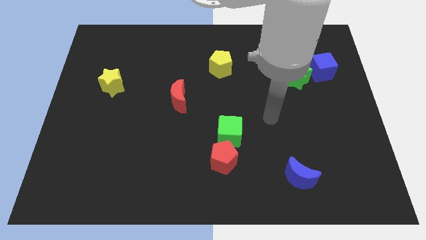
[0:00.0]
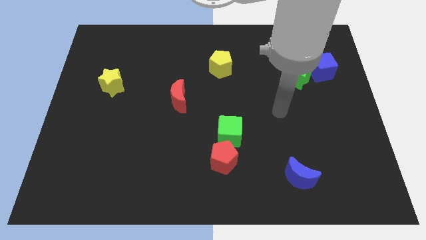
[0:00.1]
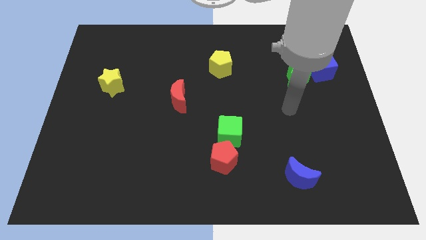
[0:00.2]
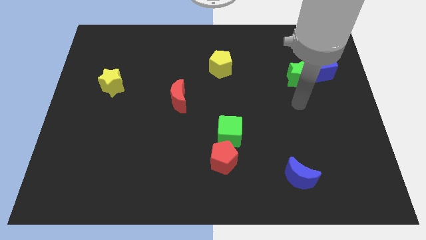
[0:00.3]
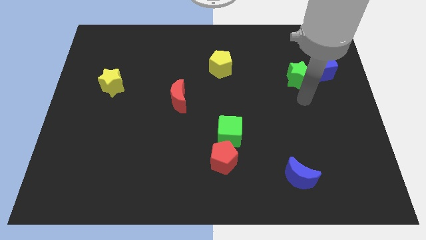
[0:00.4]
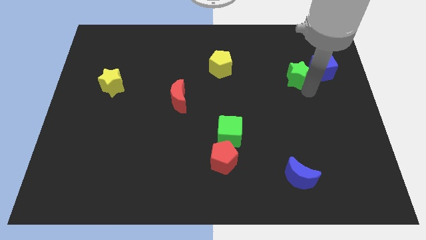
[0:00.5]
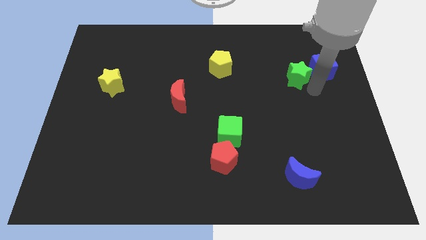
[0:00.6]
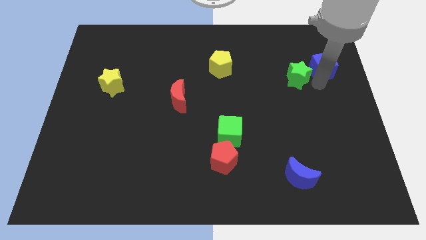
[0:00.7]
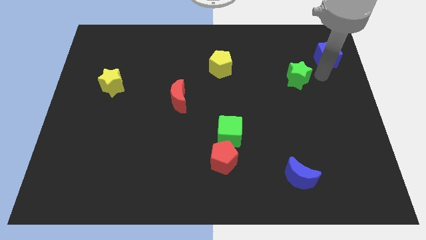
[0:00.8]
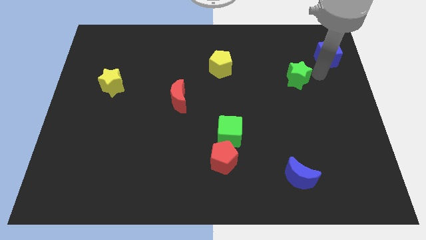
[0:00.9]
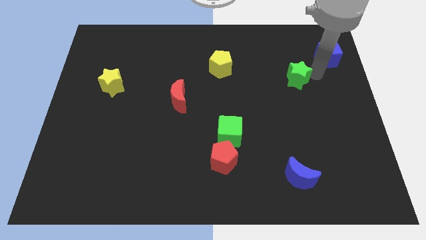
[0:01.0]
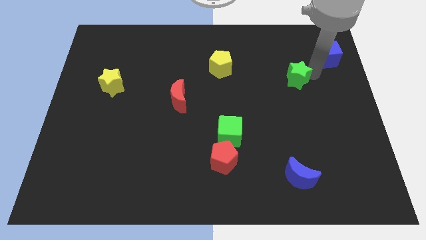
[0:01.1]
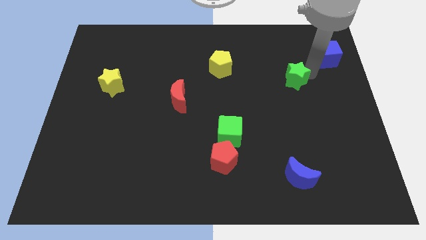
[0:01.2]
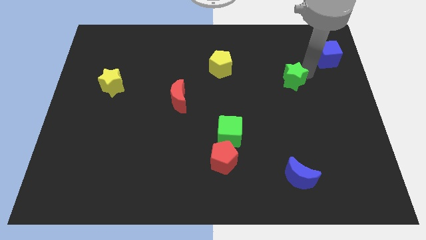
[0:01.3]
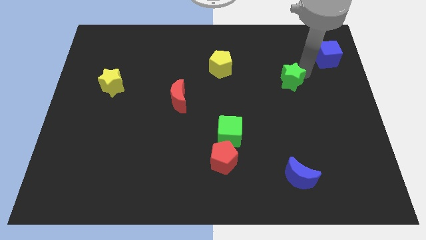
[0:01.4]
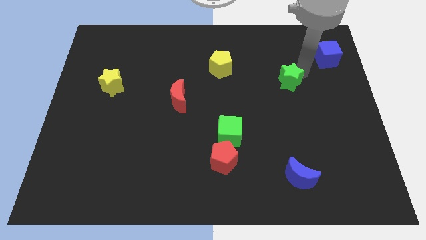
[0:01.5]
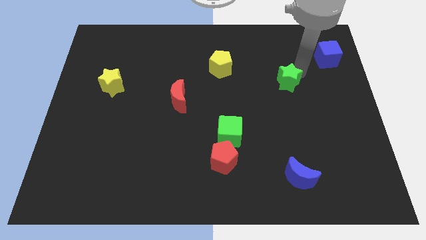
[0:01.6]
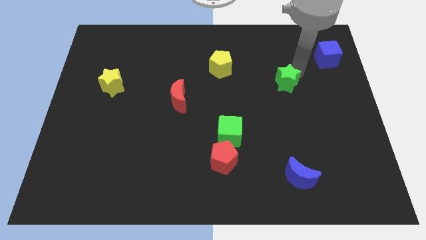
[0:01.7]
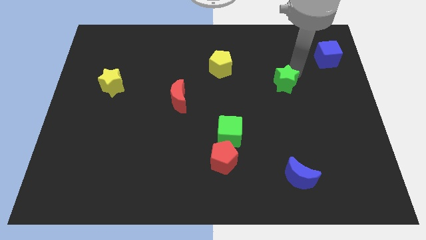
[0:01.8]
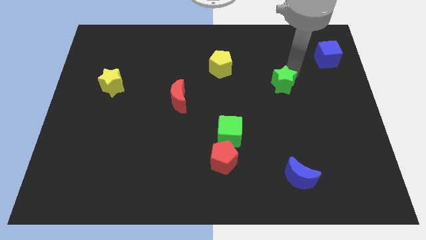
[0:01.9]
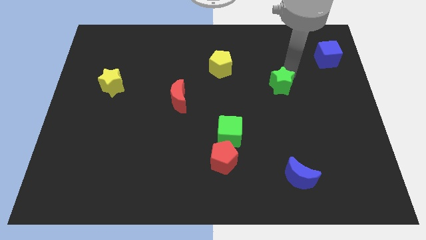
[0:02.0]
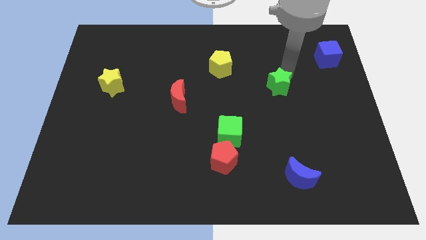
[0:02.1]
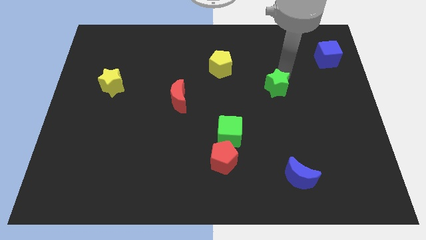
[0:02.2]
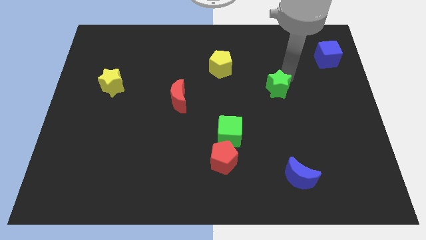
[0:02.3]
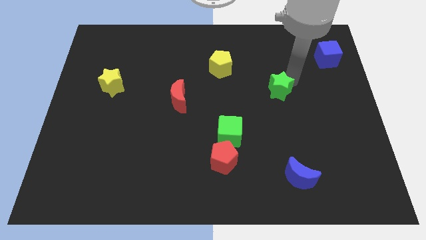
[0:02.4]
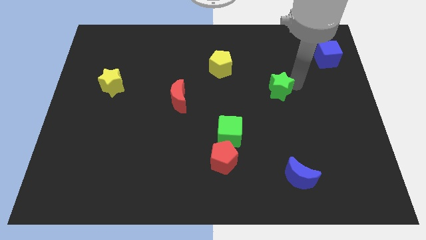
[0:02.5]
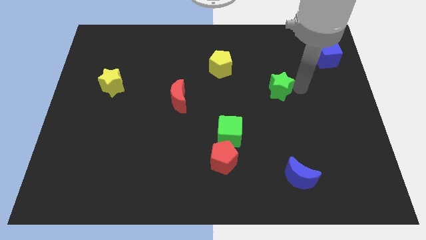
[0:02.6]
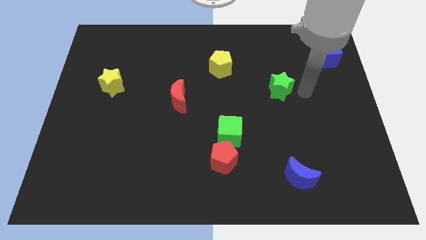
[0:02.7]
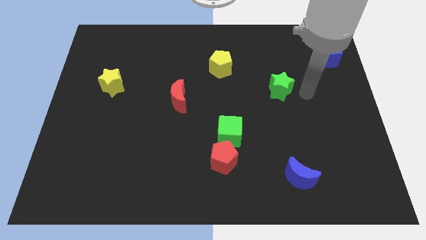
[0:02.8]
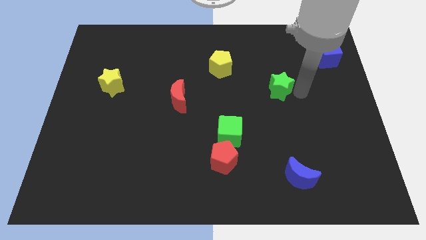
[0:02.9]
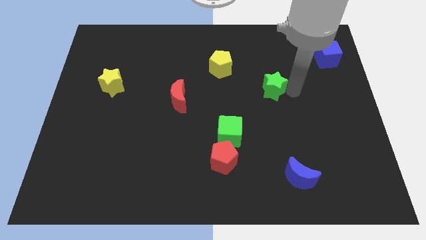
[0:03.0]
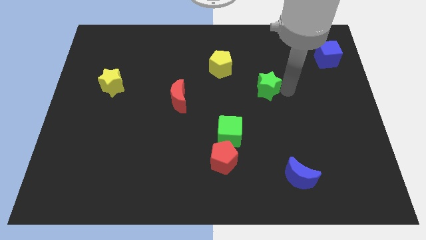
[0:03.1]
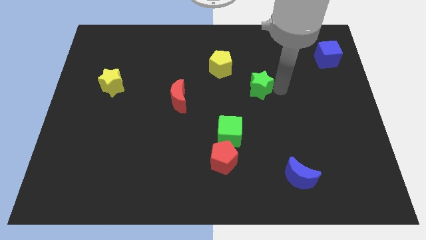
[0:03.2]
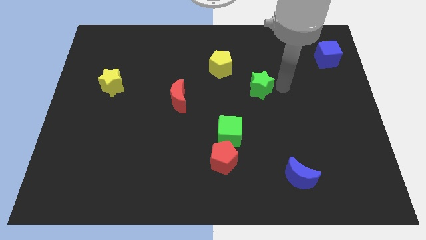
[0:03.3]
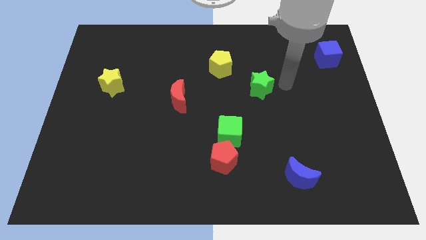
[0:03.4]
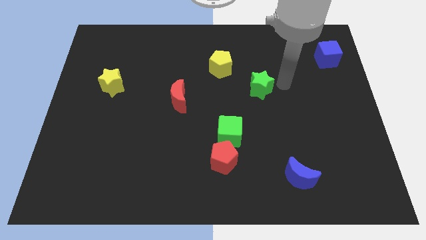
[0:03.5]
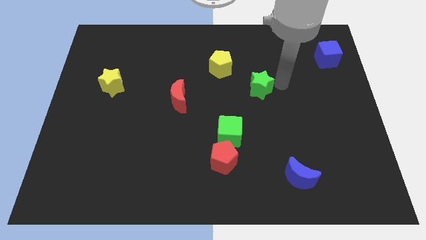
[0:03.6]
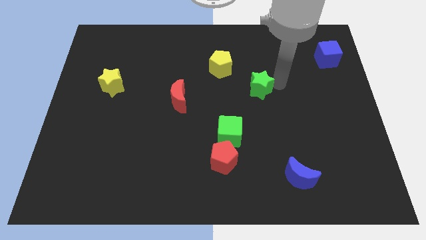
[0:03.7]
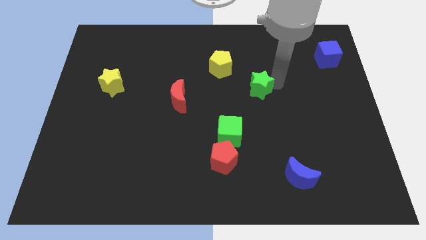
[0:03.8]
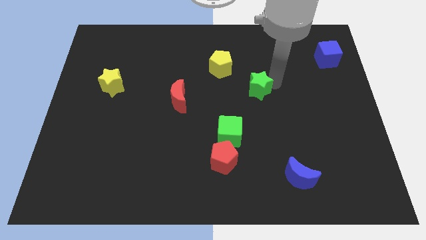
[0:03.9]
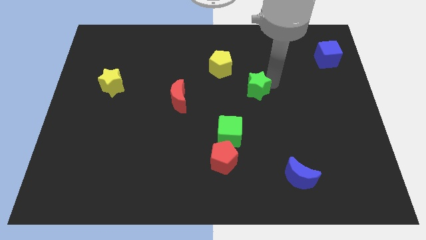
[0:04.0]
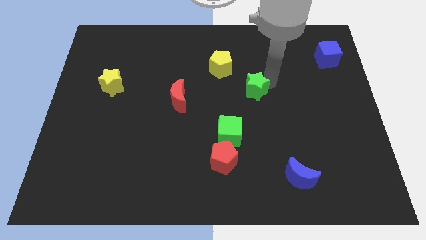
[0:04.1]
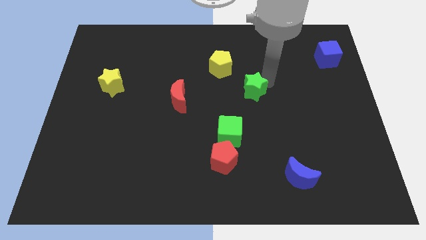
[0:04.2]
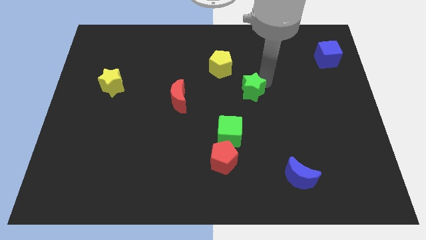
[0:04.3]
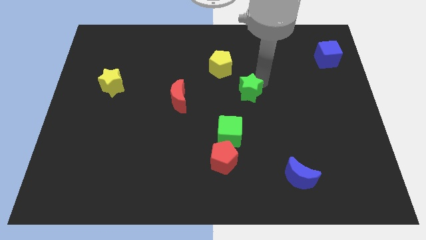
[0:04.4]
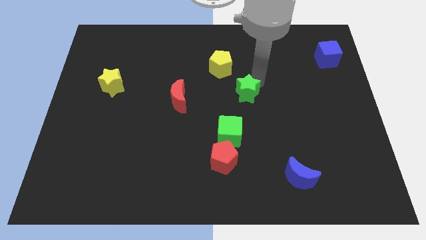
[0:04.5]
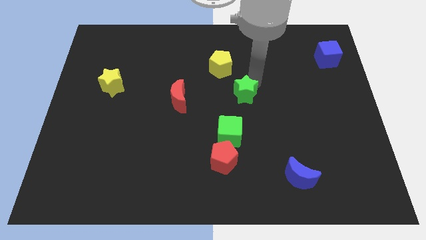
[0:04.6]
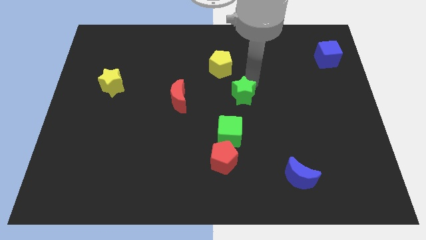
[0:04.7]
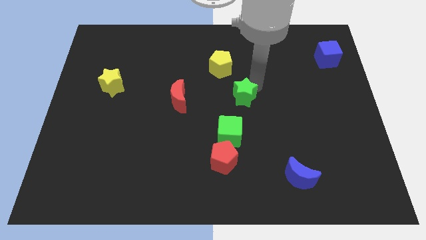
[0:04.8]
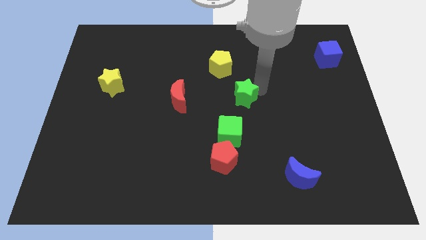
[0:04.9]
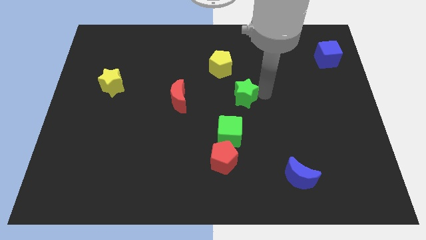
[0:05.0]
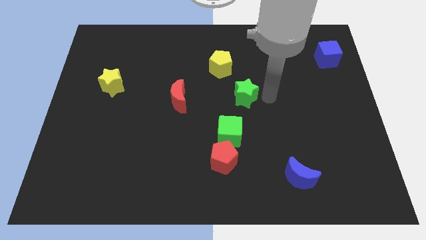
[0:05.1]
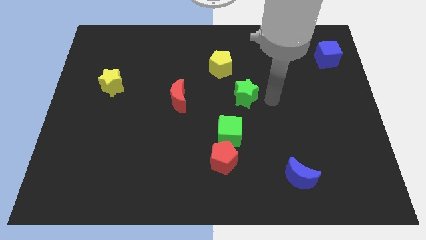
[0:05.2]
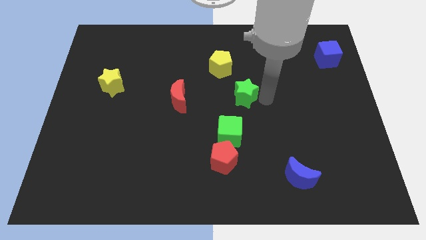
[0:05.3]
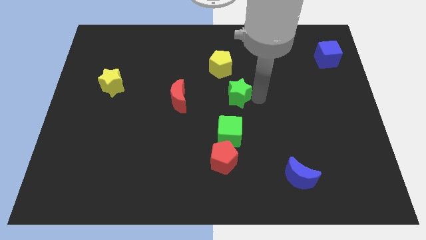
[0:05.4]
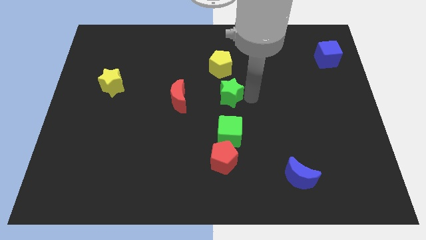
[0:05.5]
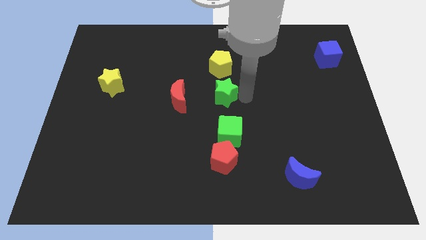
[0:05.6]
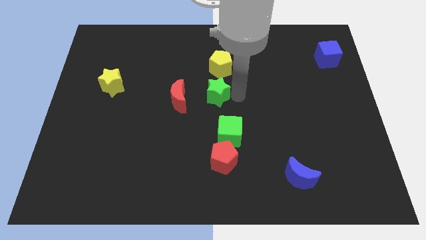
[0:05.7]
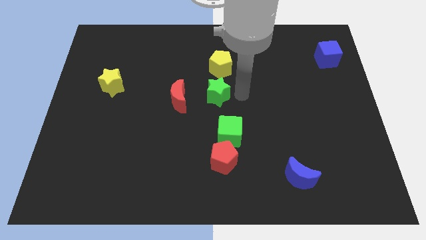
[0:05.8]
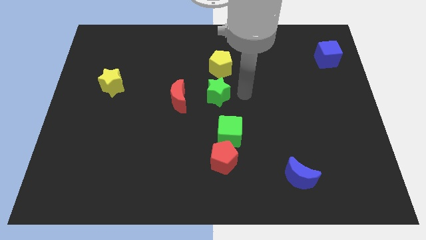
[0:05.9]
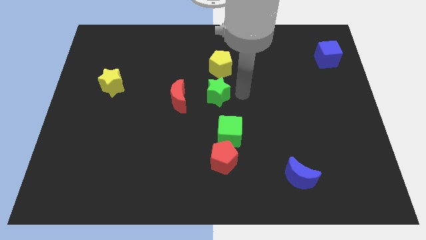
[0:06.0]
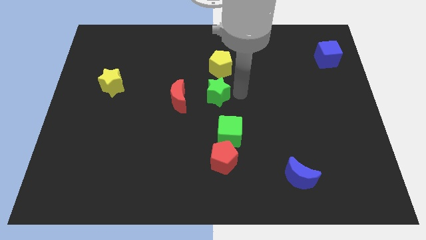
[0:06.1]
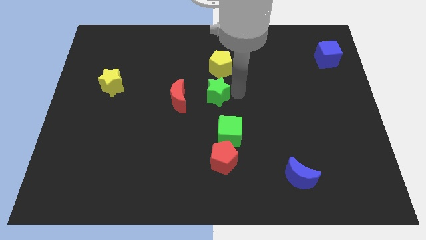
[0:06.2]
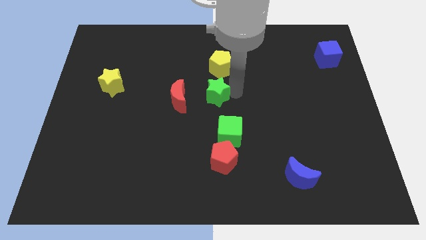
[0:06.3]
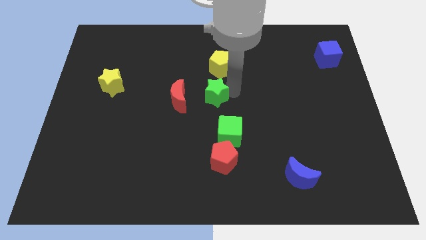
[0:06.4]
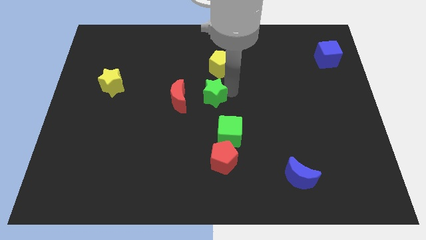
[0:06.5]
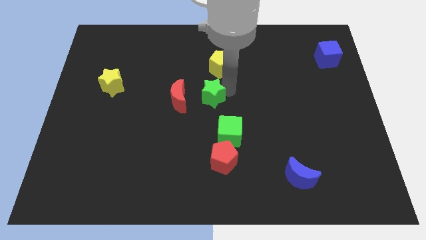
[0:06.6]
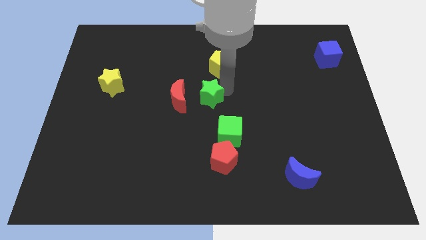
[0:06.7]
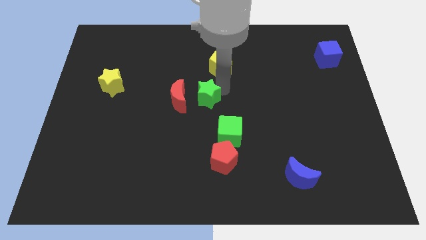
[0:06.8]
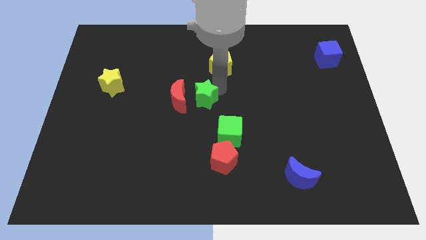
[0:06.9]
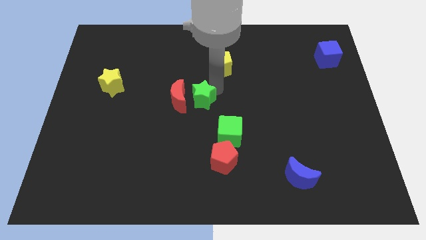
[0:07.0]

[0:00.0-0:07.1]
move the green star close to the red moon

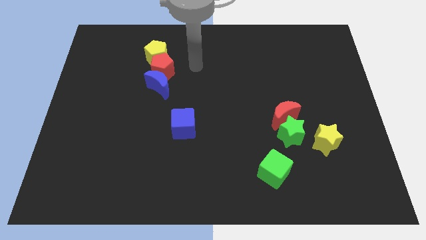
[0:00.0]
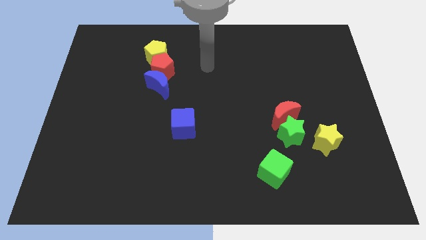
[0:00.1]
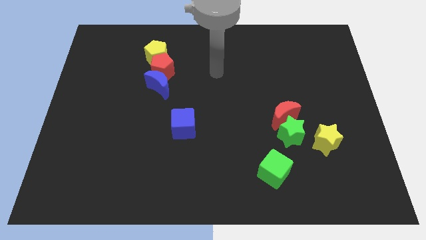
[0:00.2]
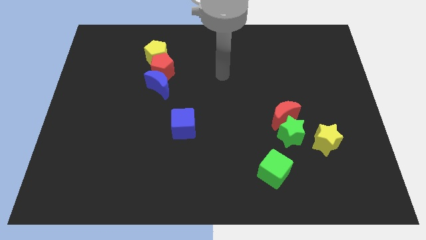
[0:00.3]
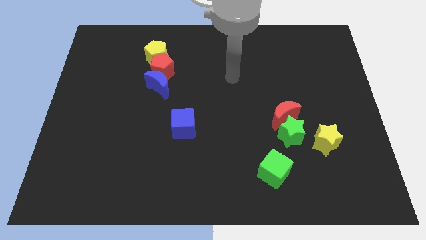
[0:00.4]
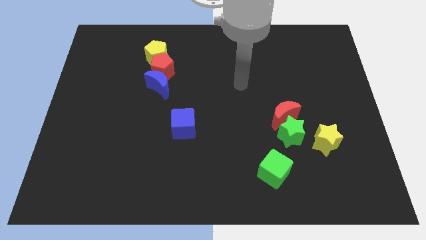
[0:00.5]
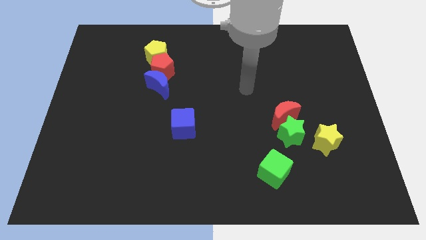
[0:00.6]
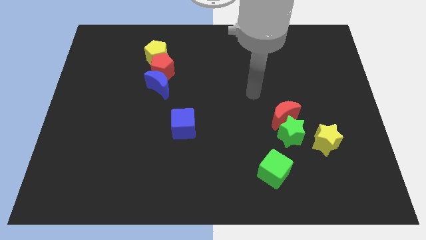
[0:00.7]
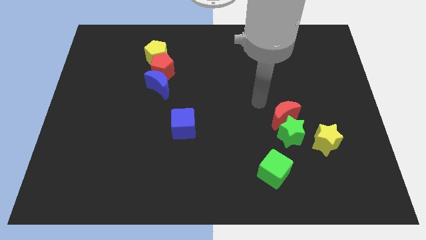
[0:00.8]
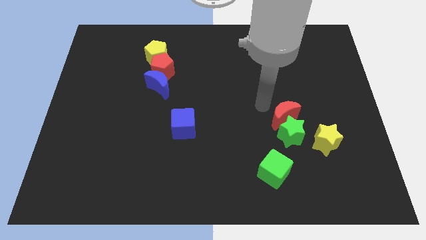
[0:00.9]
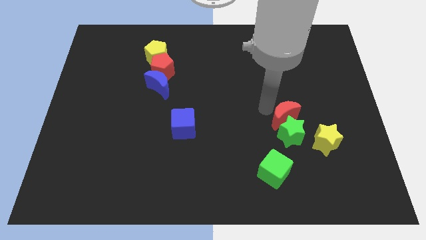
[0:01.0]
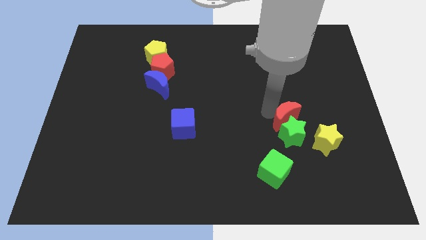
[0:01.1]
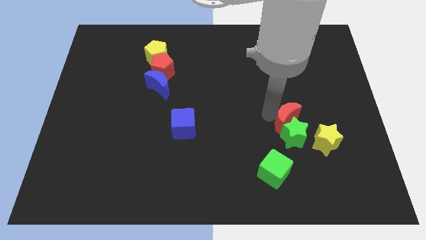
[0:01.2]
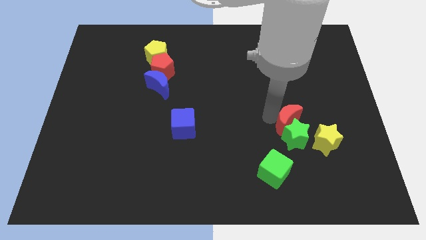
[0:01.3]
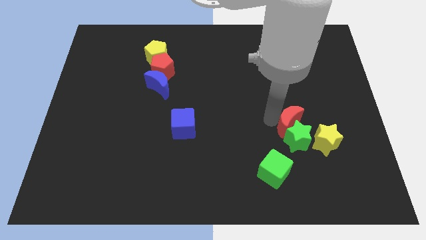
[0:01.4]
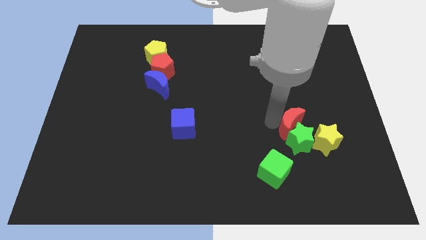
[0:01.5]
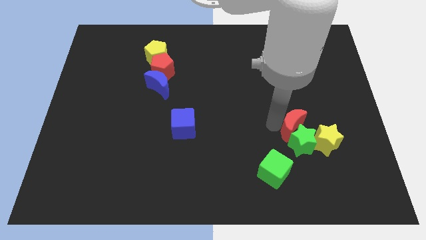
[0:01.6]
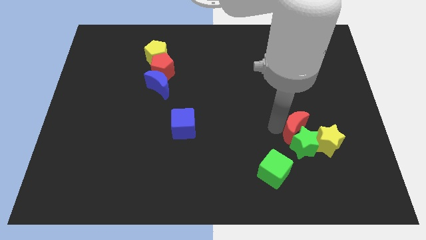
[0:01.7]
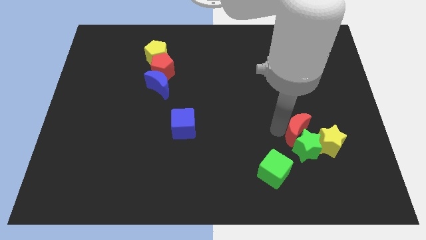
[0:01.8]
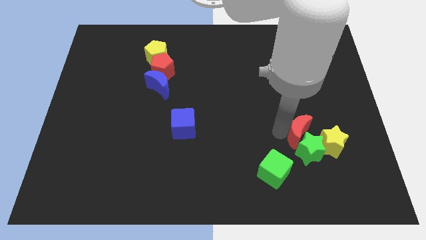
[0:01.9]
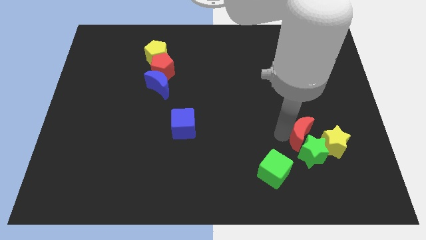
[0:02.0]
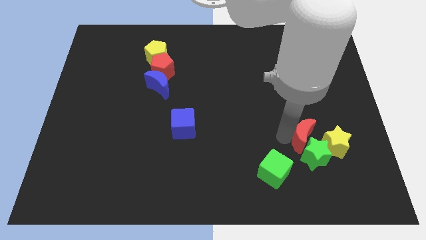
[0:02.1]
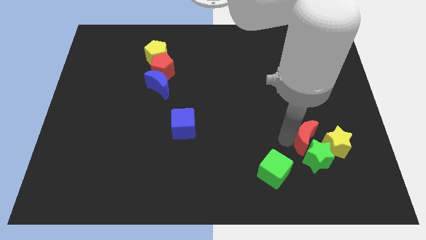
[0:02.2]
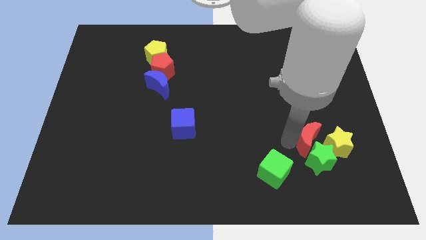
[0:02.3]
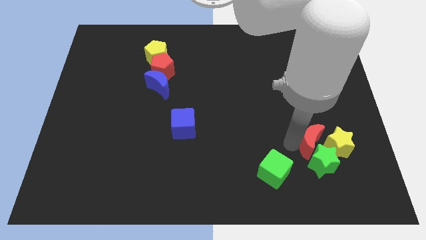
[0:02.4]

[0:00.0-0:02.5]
put the red moon next to the yellow star
